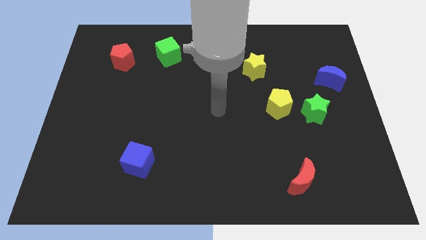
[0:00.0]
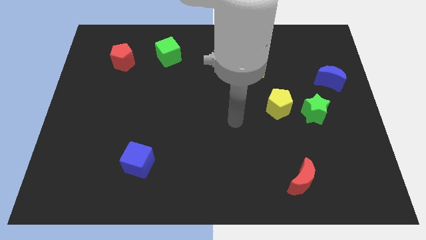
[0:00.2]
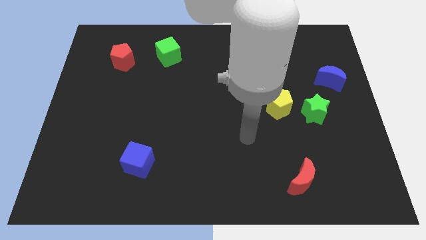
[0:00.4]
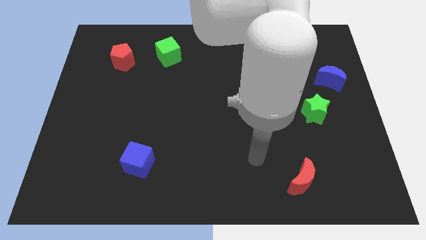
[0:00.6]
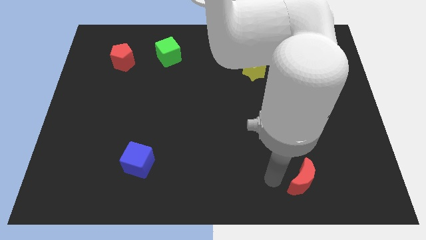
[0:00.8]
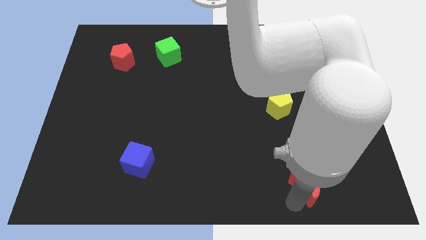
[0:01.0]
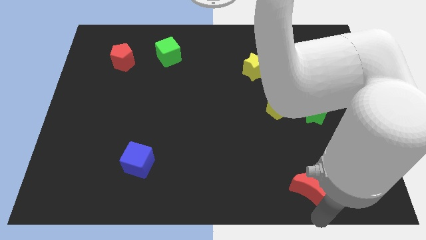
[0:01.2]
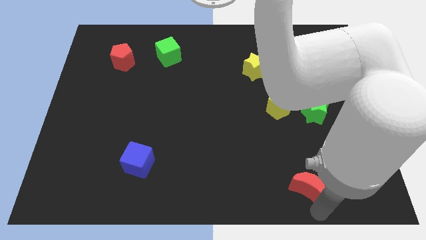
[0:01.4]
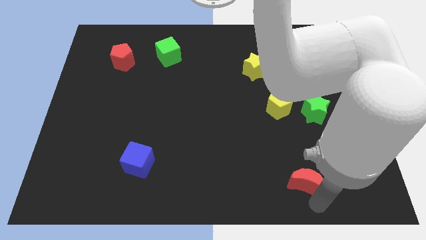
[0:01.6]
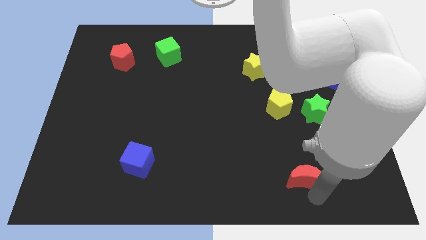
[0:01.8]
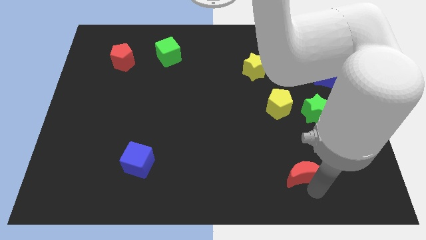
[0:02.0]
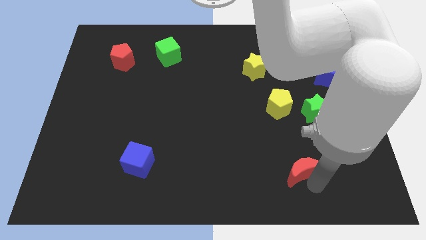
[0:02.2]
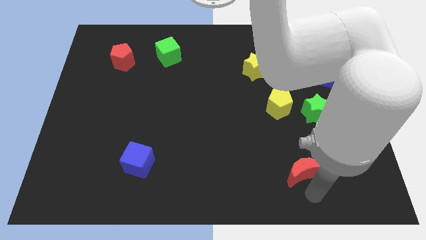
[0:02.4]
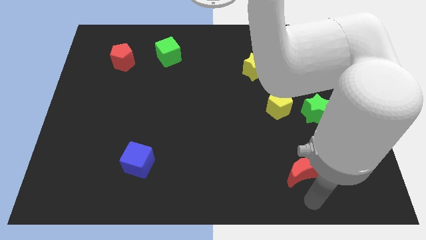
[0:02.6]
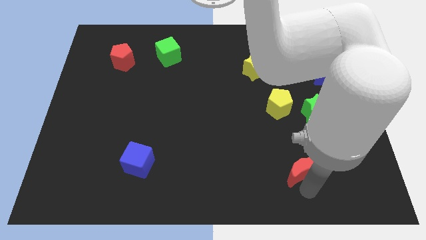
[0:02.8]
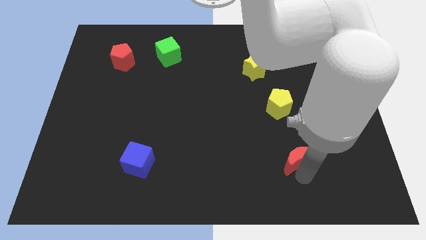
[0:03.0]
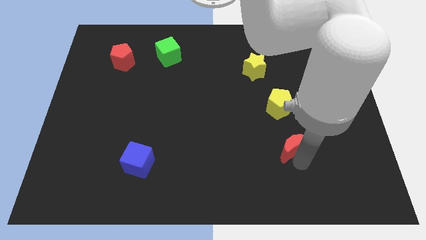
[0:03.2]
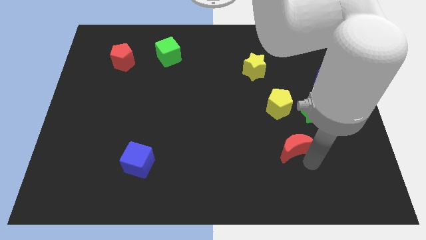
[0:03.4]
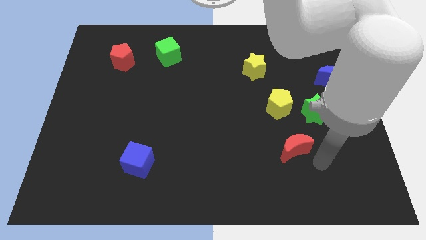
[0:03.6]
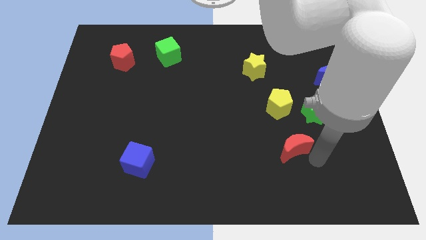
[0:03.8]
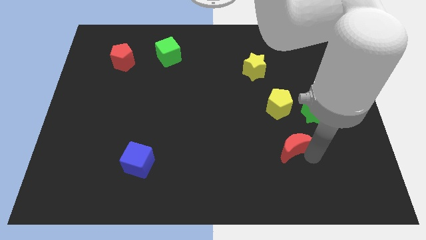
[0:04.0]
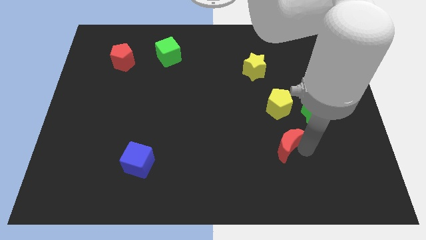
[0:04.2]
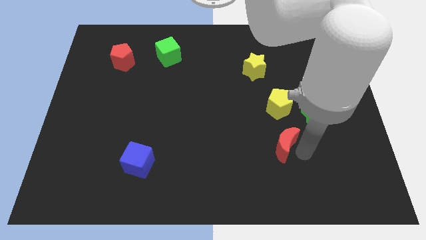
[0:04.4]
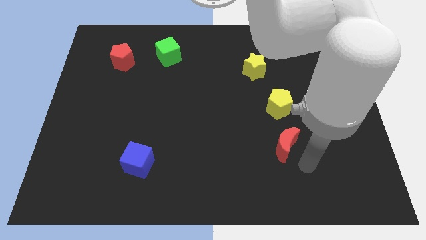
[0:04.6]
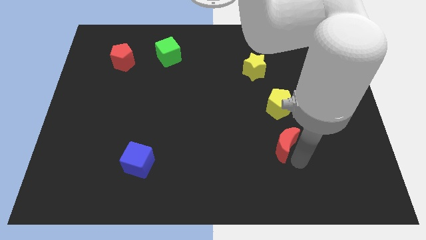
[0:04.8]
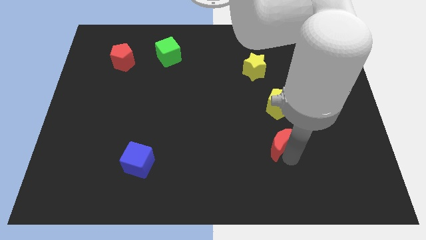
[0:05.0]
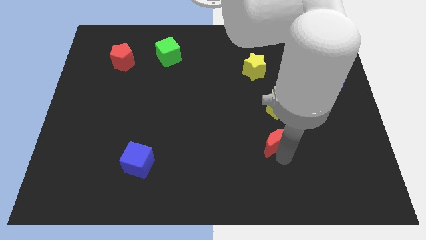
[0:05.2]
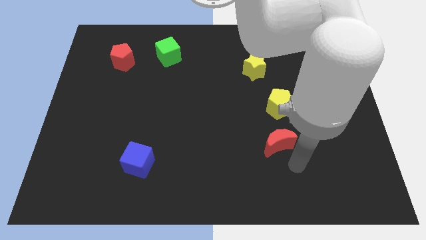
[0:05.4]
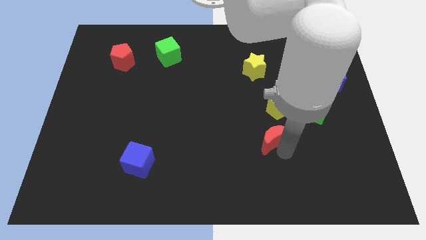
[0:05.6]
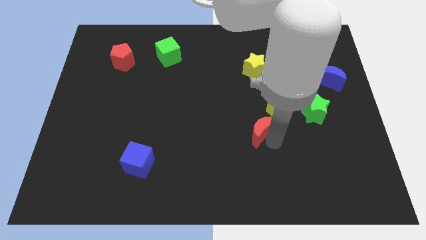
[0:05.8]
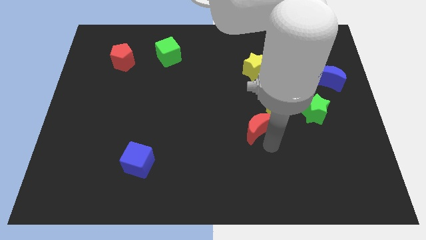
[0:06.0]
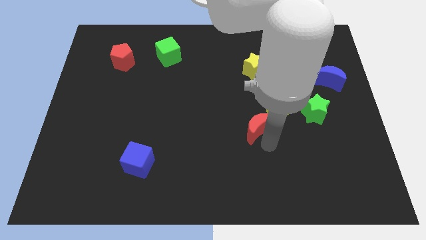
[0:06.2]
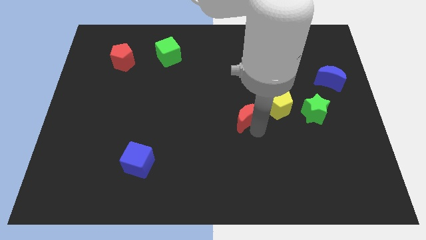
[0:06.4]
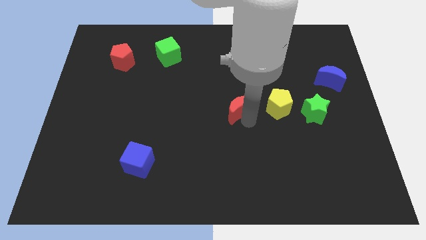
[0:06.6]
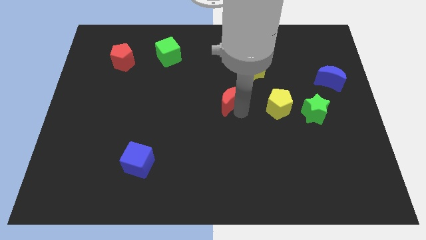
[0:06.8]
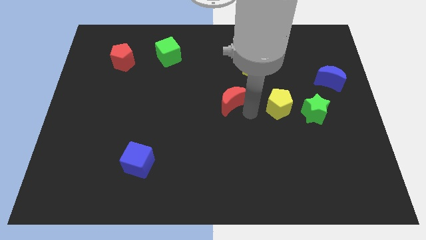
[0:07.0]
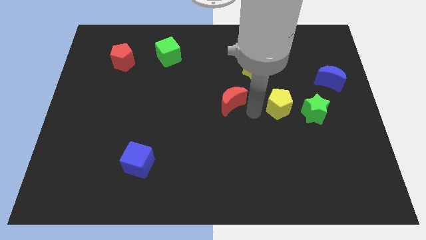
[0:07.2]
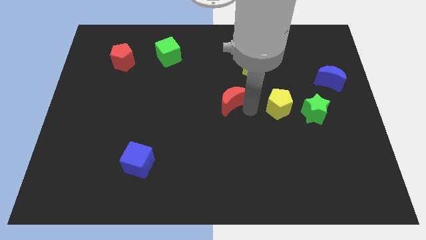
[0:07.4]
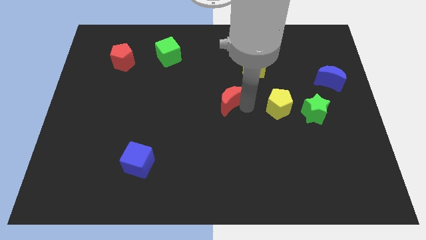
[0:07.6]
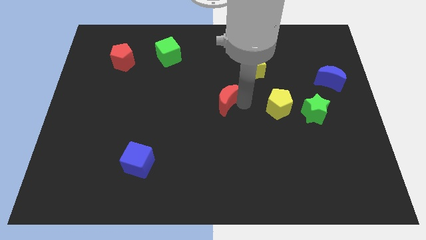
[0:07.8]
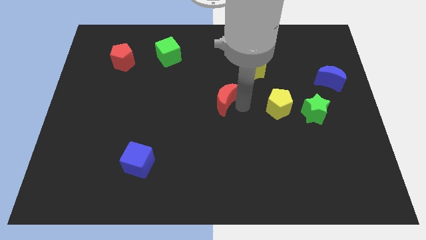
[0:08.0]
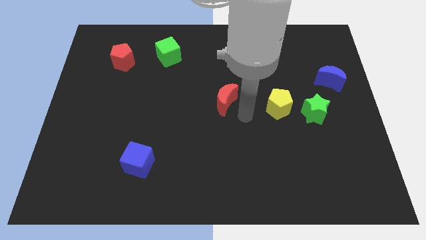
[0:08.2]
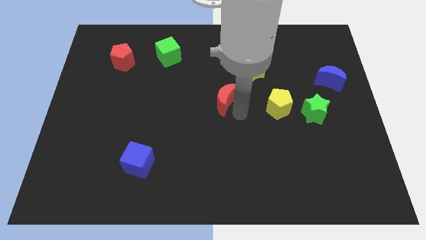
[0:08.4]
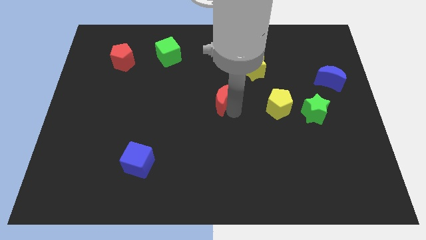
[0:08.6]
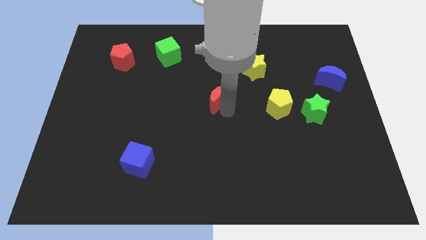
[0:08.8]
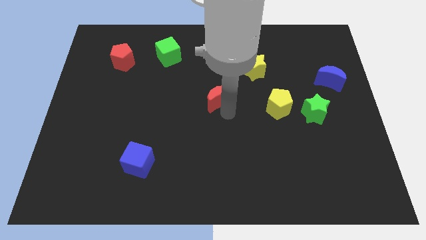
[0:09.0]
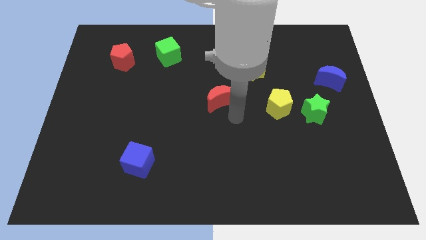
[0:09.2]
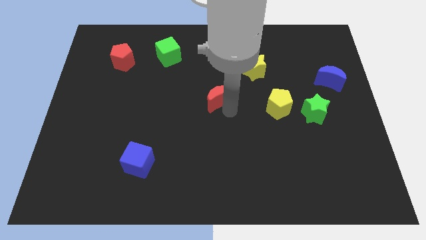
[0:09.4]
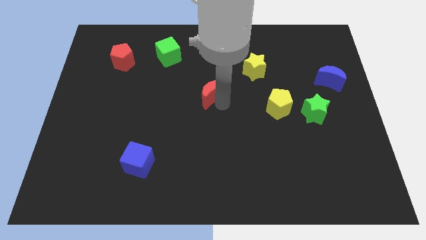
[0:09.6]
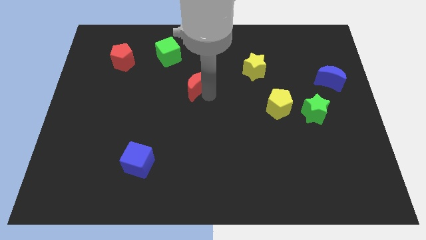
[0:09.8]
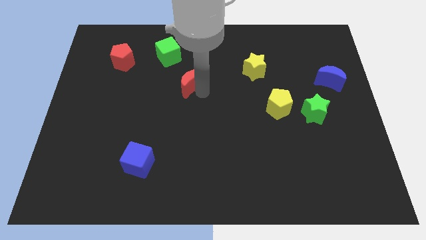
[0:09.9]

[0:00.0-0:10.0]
move the red moon to the bottom right side of the green cube

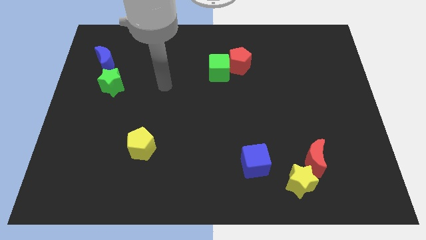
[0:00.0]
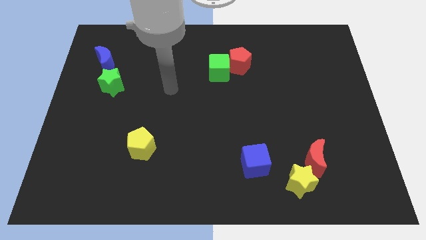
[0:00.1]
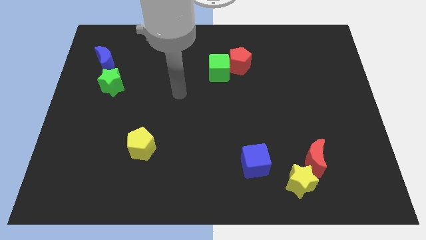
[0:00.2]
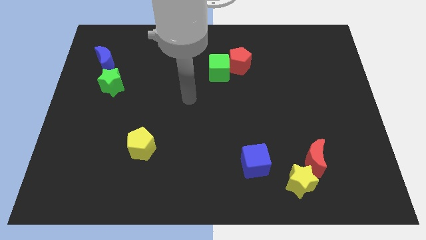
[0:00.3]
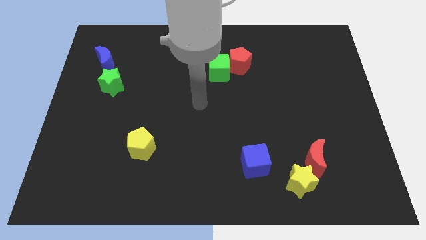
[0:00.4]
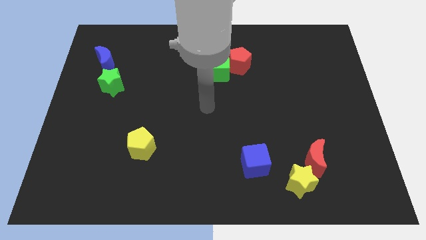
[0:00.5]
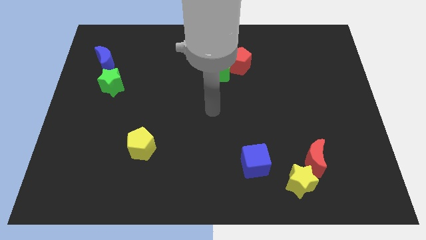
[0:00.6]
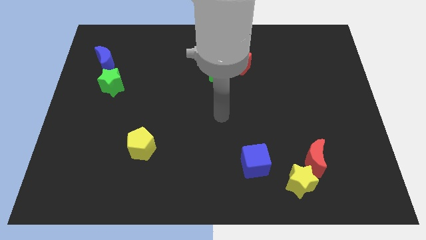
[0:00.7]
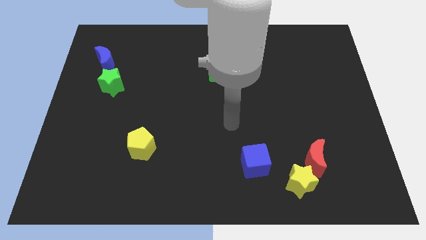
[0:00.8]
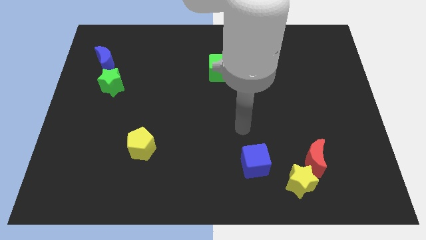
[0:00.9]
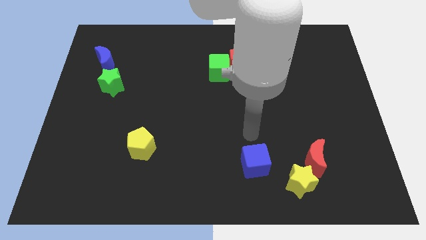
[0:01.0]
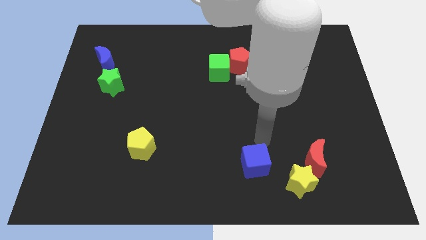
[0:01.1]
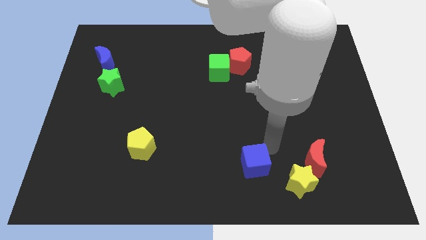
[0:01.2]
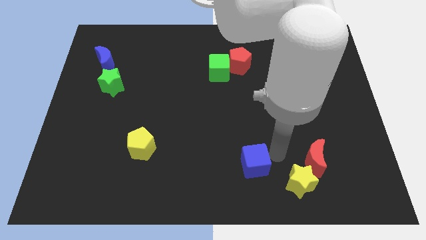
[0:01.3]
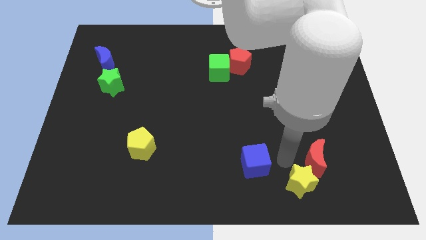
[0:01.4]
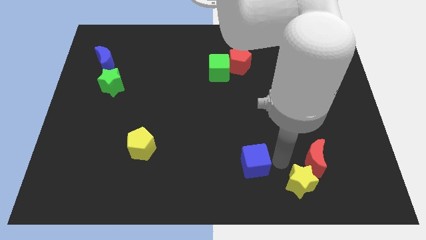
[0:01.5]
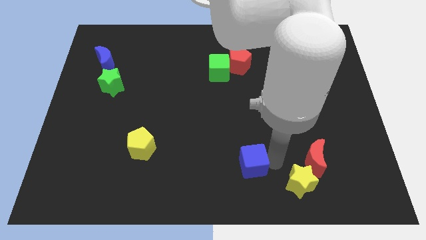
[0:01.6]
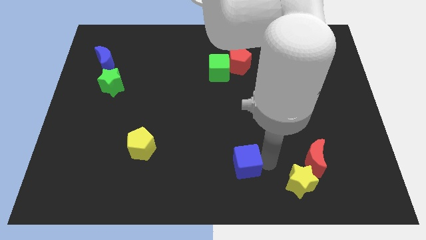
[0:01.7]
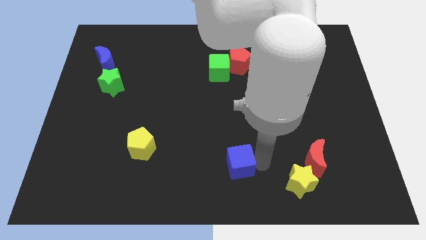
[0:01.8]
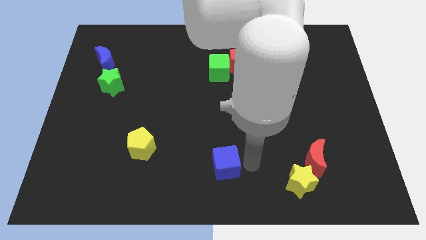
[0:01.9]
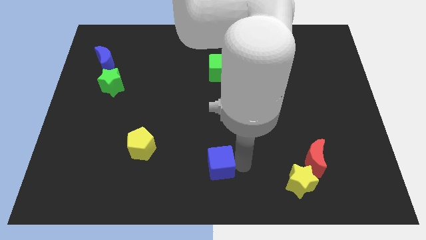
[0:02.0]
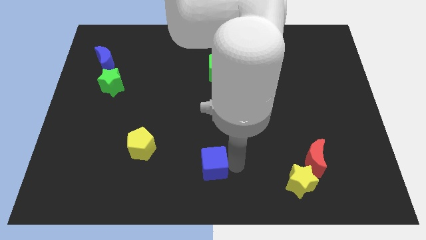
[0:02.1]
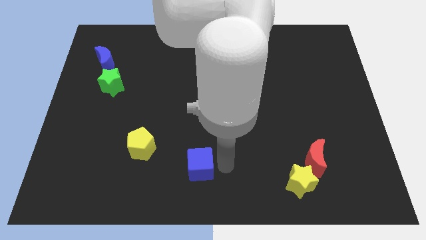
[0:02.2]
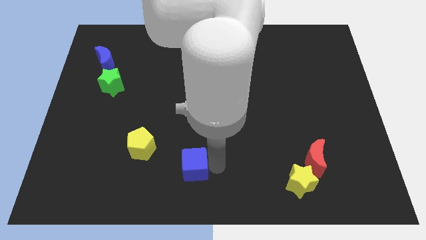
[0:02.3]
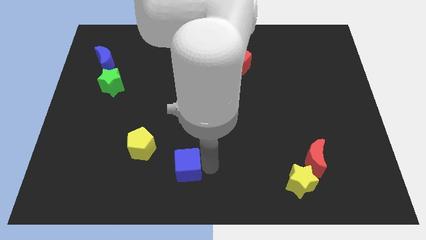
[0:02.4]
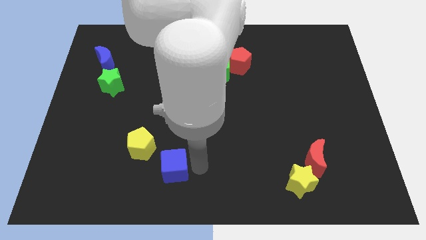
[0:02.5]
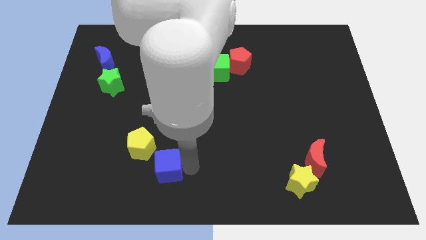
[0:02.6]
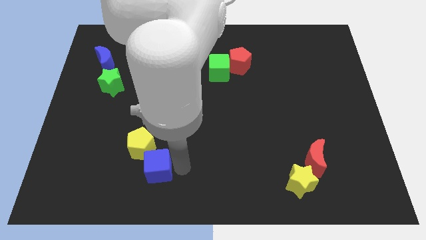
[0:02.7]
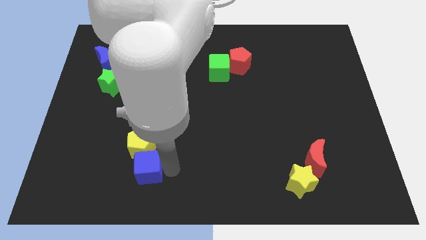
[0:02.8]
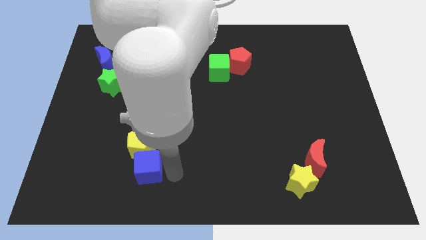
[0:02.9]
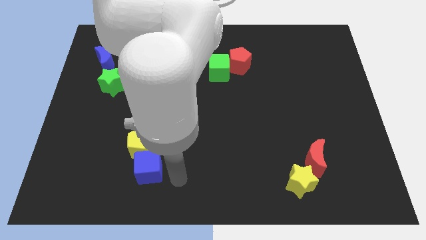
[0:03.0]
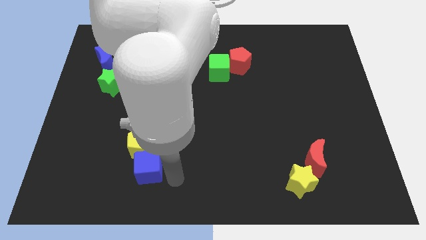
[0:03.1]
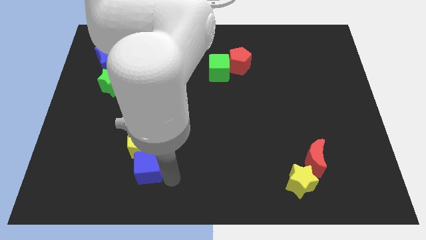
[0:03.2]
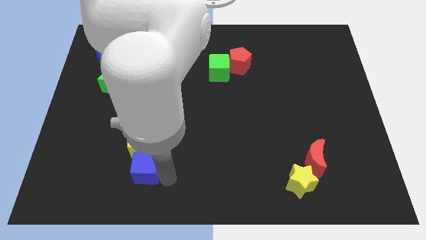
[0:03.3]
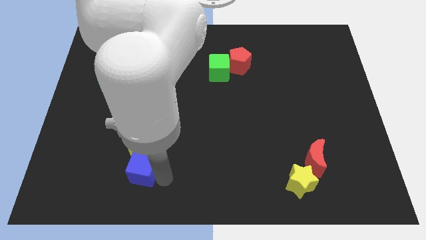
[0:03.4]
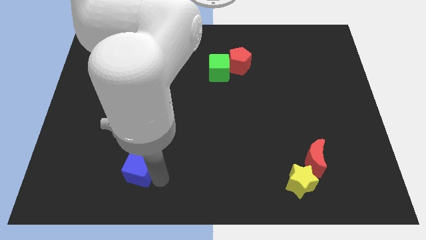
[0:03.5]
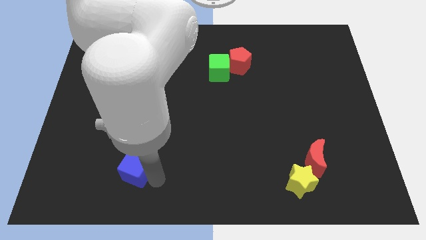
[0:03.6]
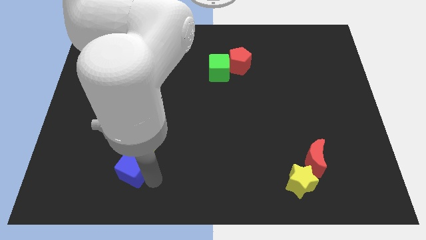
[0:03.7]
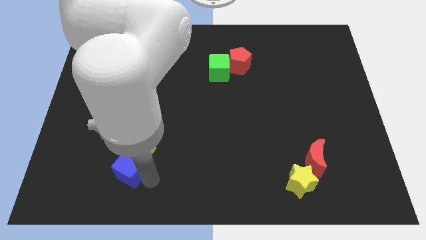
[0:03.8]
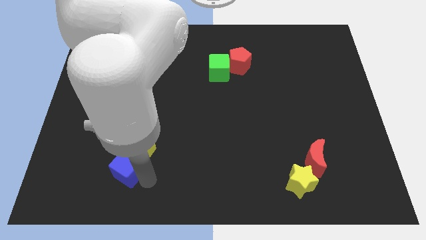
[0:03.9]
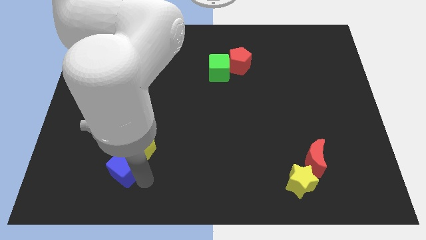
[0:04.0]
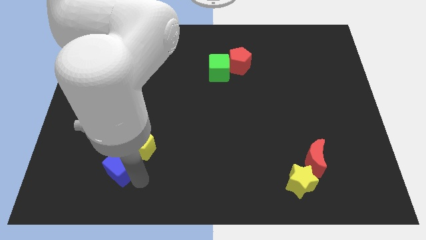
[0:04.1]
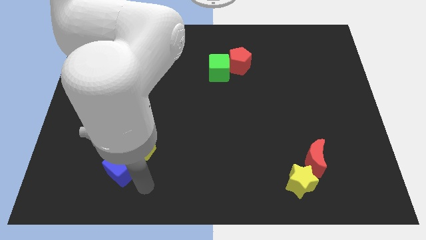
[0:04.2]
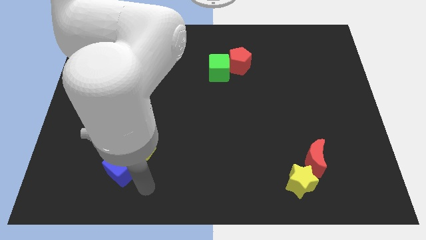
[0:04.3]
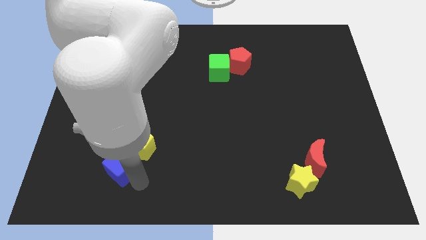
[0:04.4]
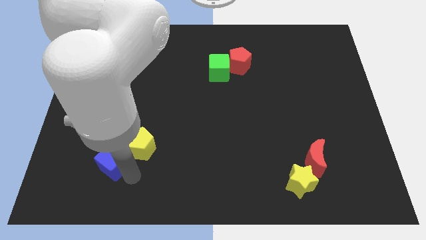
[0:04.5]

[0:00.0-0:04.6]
push the blue cube to the left of the yellow pentagon
